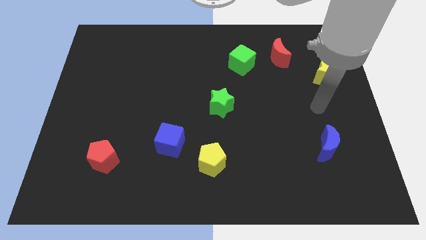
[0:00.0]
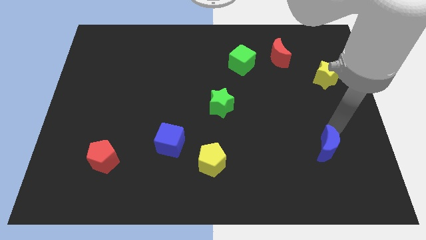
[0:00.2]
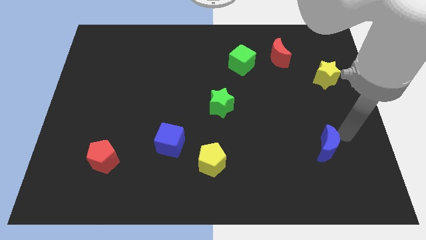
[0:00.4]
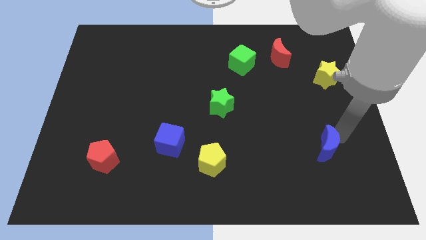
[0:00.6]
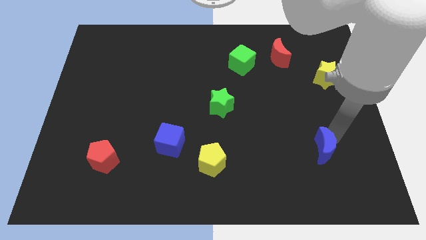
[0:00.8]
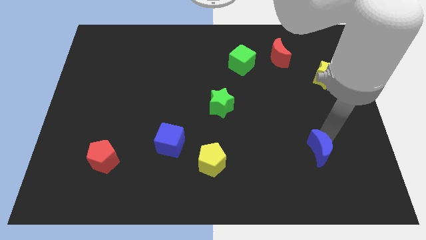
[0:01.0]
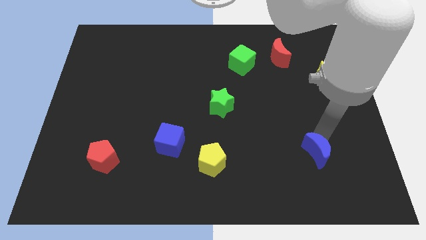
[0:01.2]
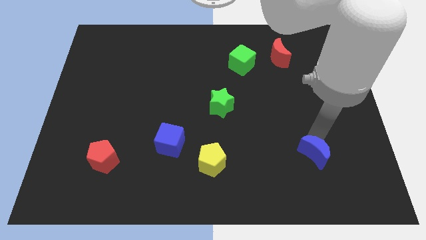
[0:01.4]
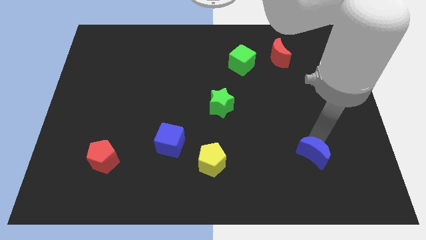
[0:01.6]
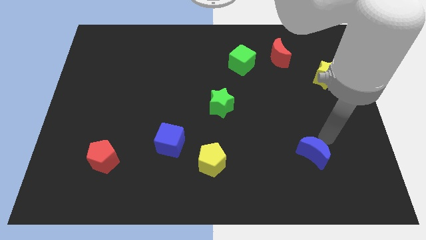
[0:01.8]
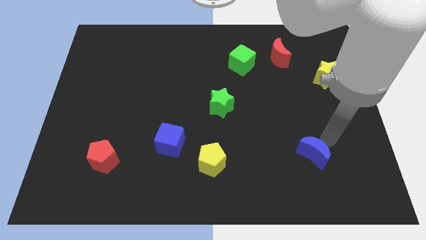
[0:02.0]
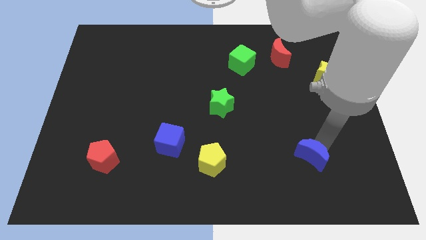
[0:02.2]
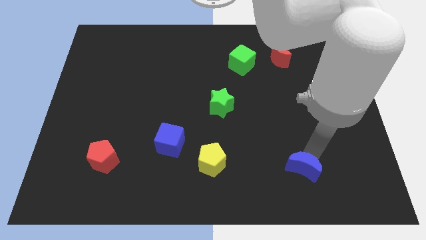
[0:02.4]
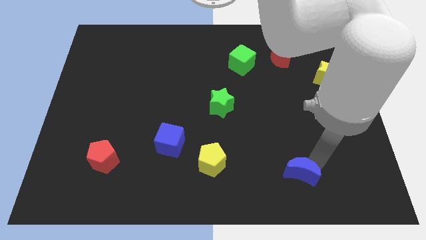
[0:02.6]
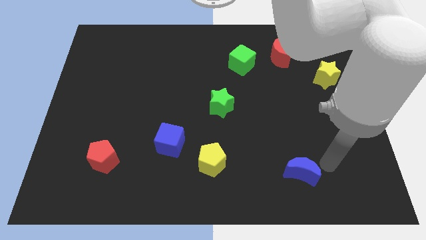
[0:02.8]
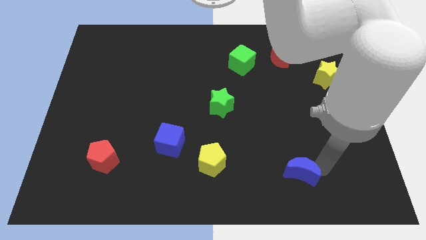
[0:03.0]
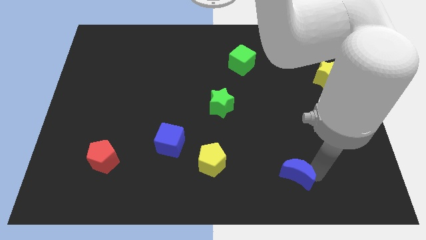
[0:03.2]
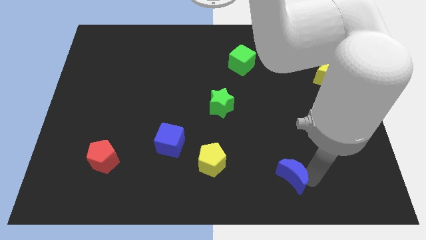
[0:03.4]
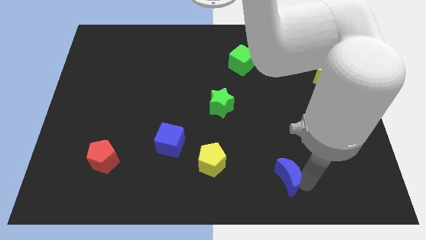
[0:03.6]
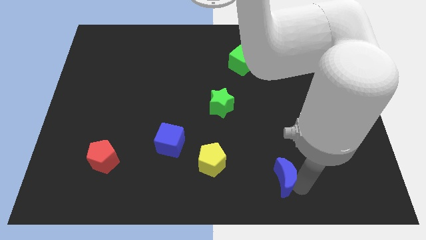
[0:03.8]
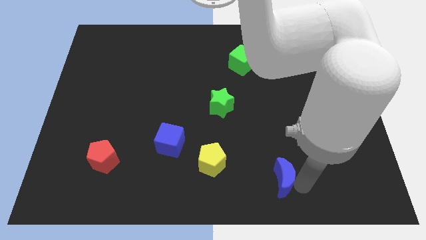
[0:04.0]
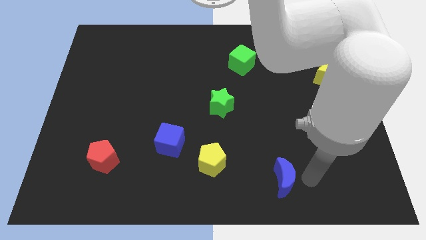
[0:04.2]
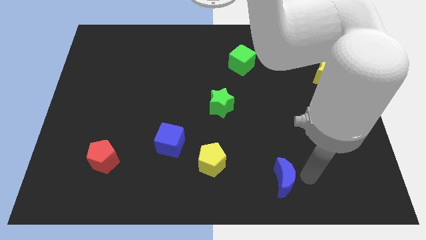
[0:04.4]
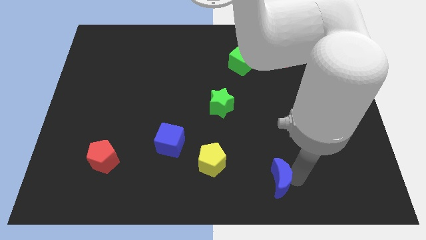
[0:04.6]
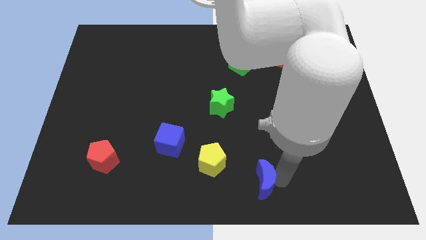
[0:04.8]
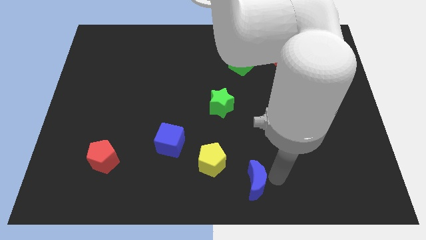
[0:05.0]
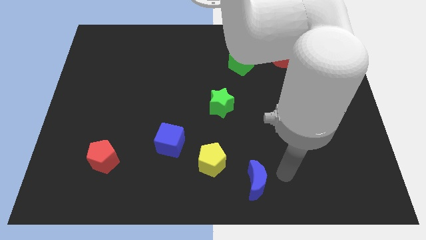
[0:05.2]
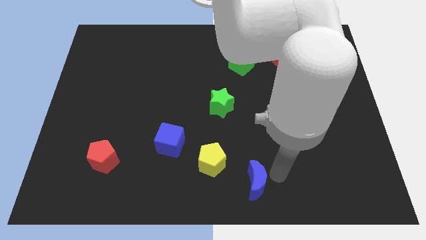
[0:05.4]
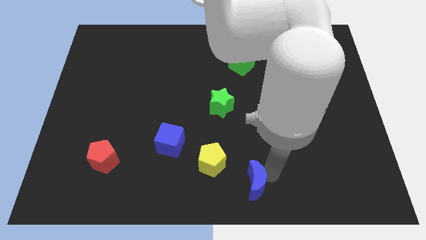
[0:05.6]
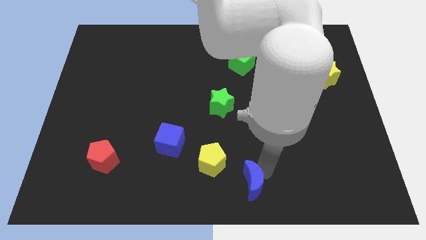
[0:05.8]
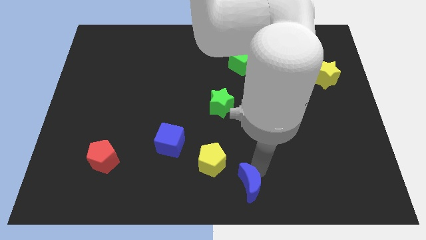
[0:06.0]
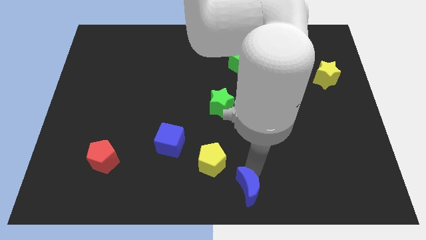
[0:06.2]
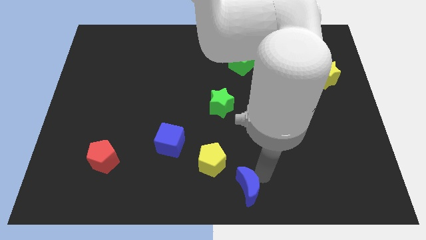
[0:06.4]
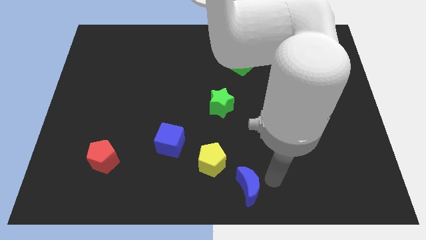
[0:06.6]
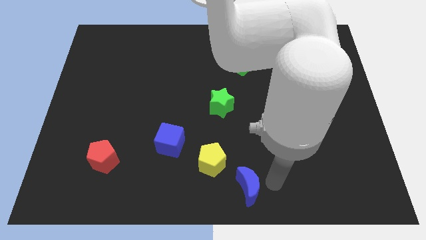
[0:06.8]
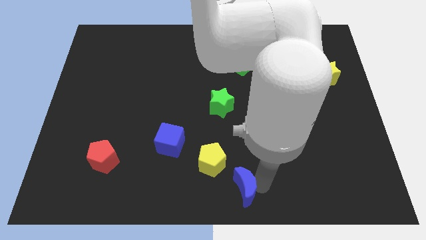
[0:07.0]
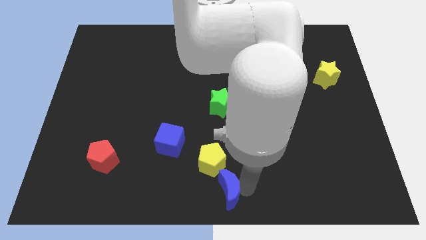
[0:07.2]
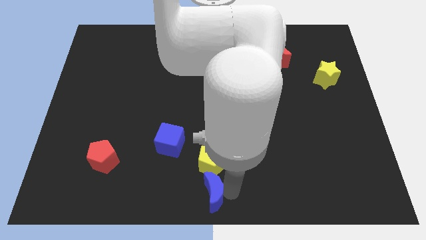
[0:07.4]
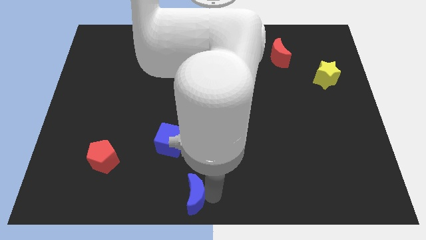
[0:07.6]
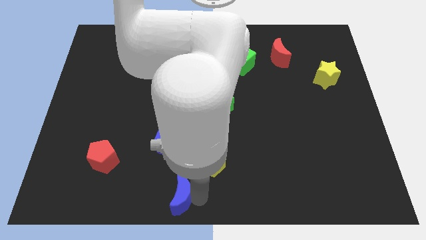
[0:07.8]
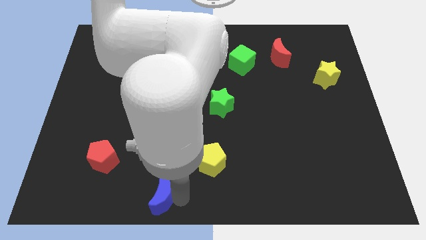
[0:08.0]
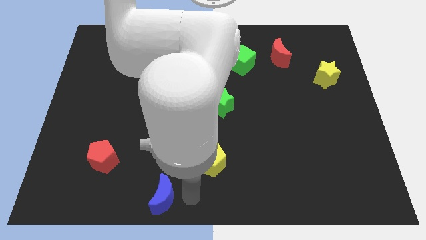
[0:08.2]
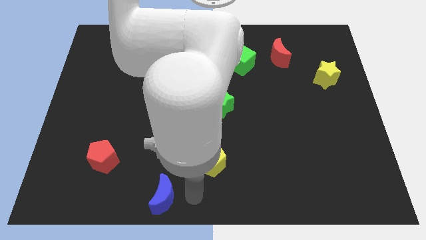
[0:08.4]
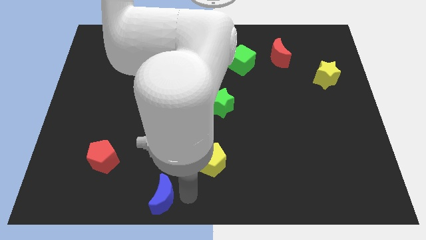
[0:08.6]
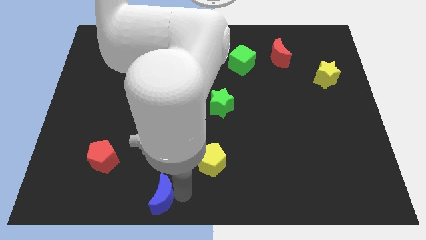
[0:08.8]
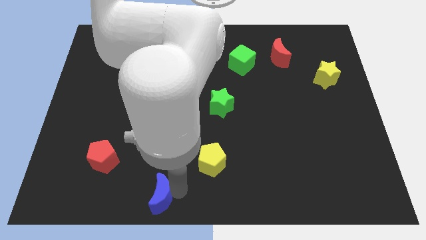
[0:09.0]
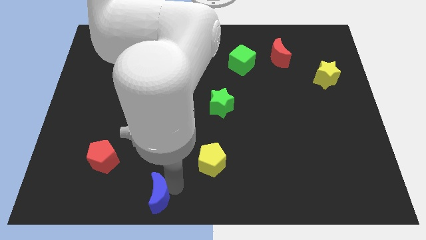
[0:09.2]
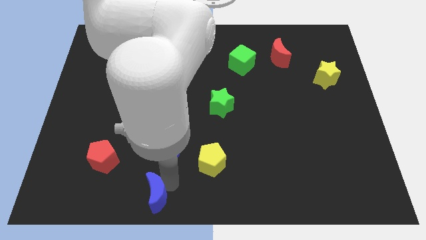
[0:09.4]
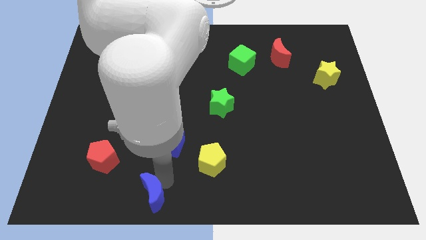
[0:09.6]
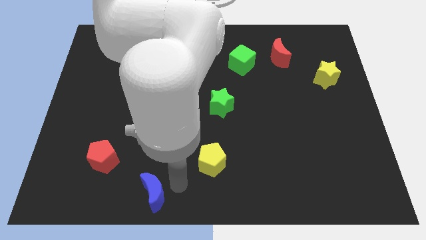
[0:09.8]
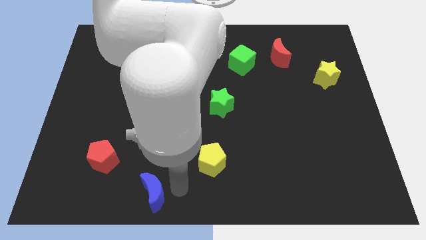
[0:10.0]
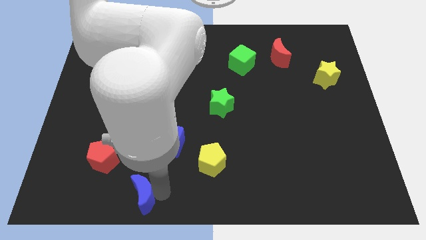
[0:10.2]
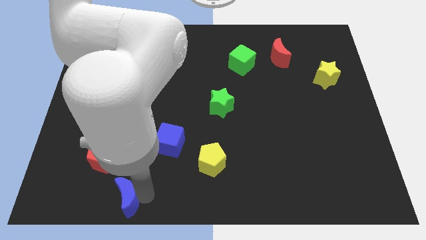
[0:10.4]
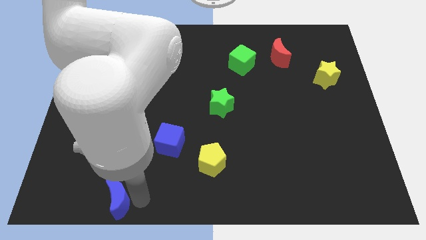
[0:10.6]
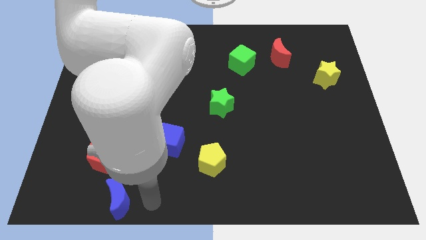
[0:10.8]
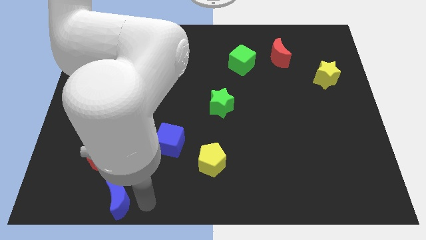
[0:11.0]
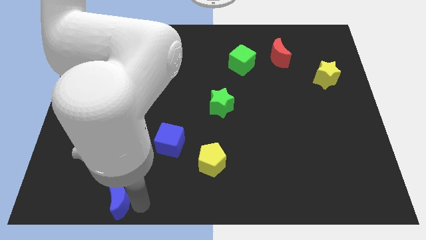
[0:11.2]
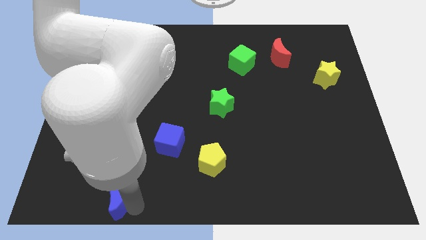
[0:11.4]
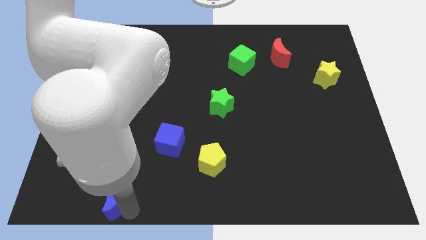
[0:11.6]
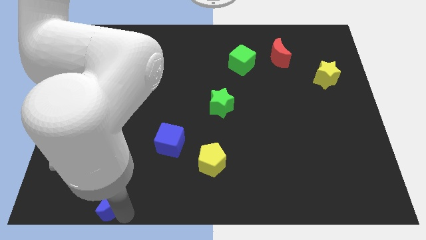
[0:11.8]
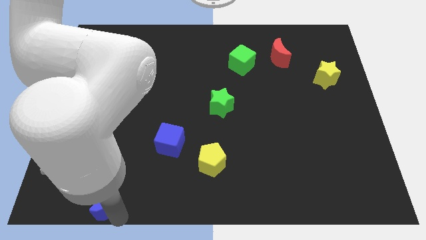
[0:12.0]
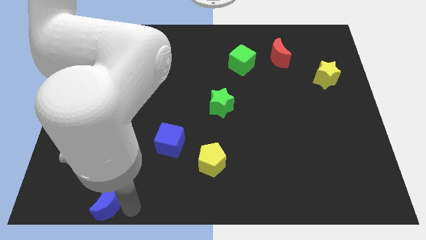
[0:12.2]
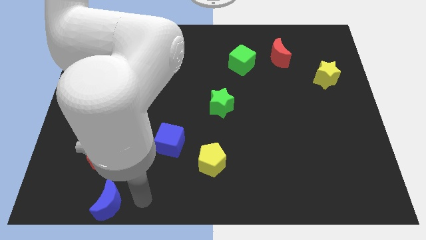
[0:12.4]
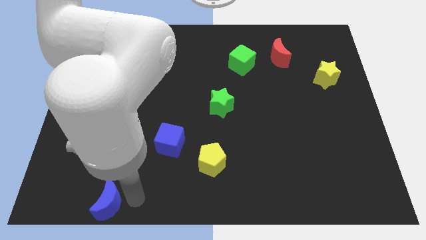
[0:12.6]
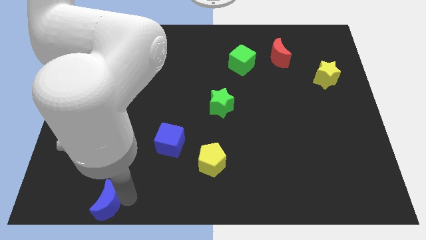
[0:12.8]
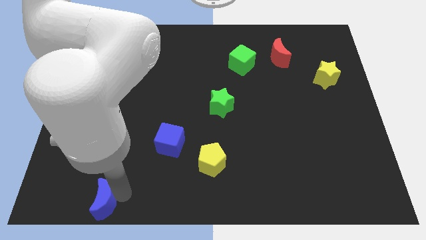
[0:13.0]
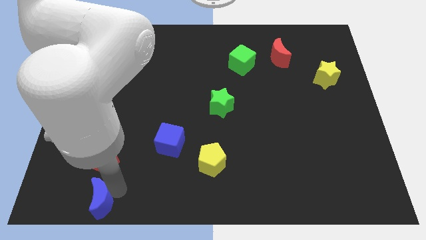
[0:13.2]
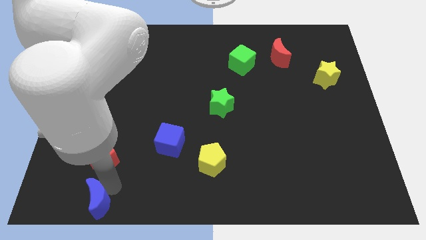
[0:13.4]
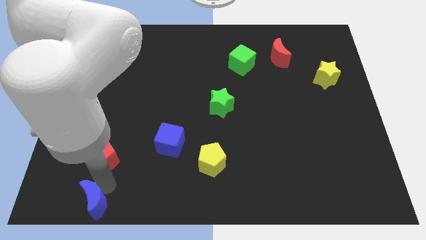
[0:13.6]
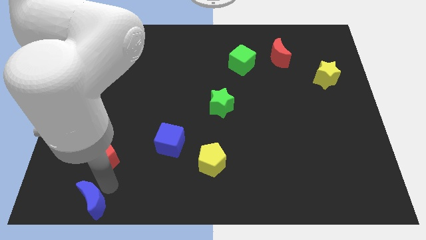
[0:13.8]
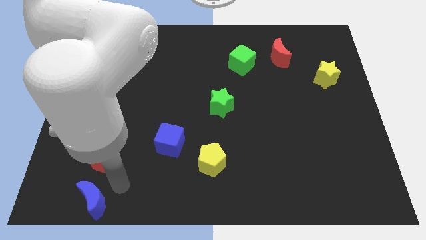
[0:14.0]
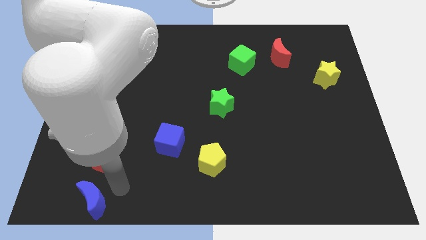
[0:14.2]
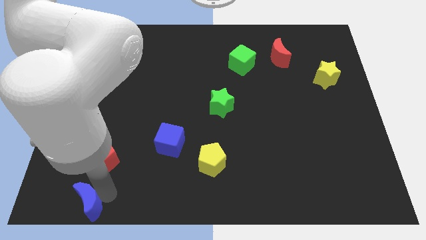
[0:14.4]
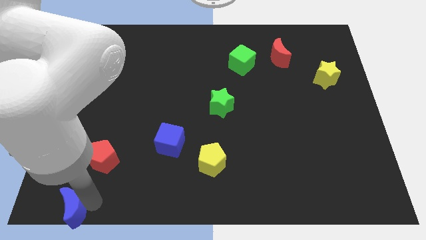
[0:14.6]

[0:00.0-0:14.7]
move the blue moon to the lower left corner
